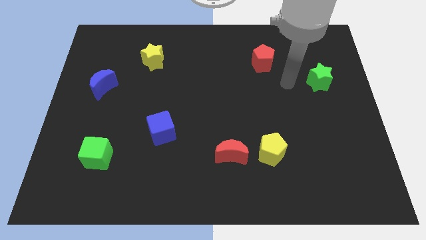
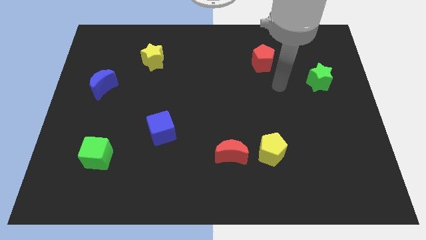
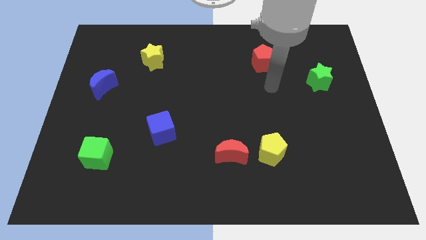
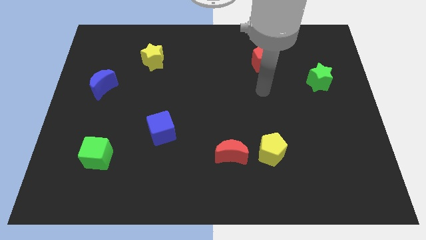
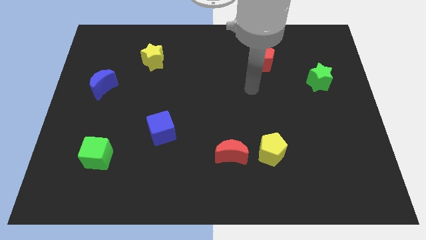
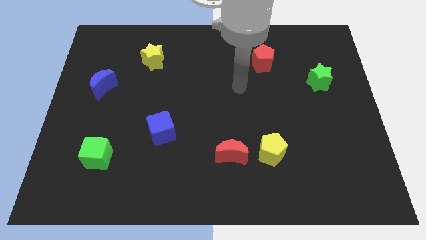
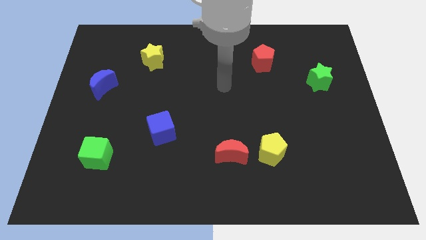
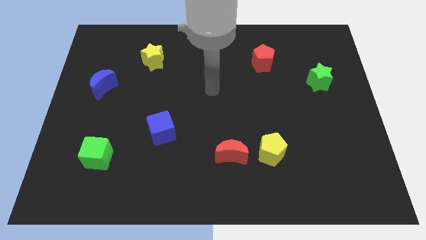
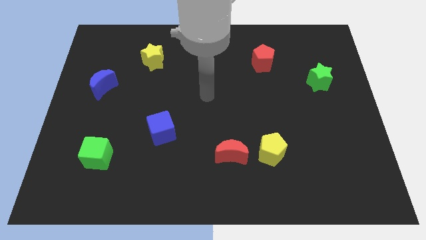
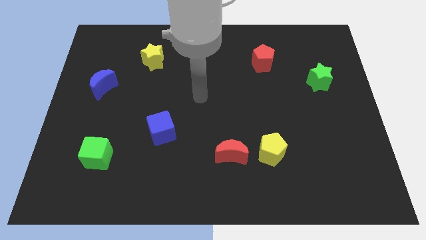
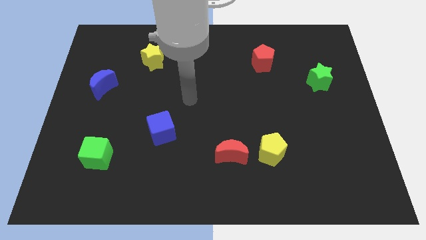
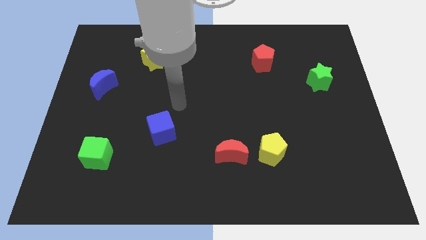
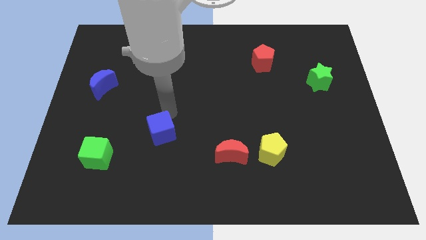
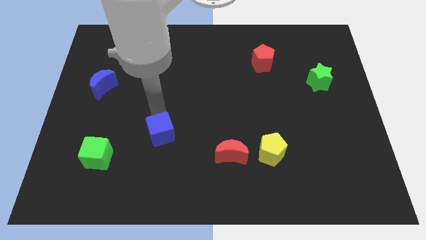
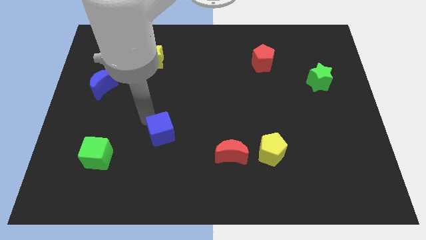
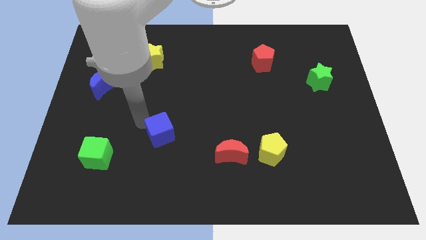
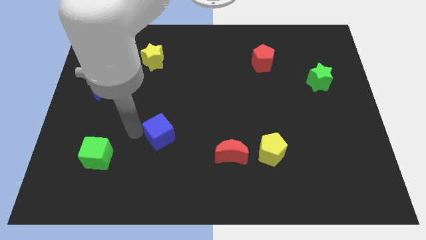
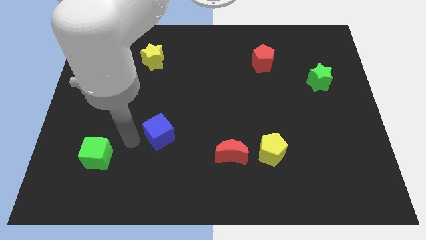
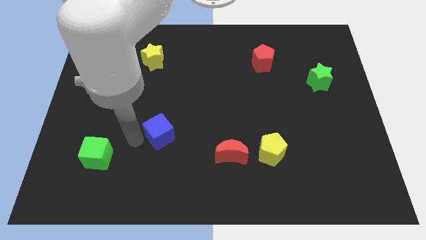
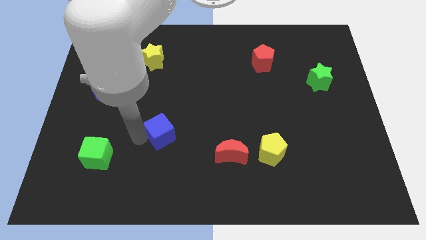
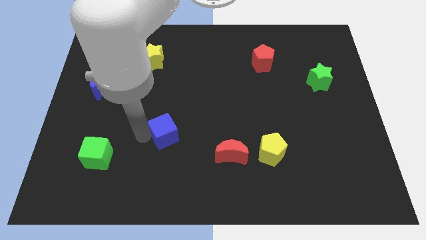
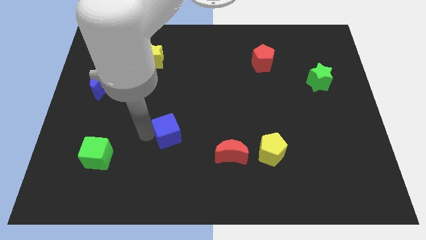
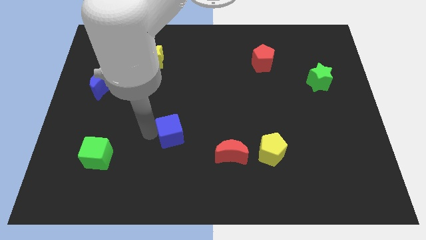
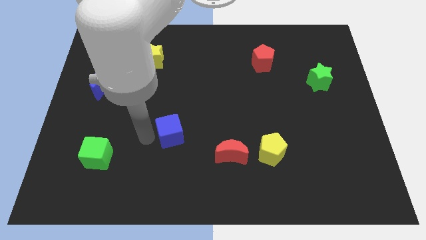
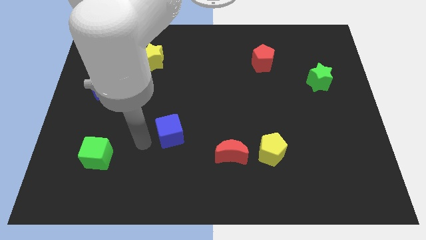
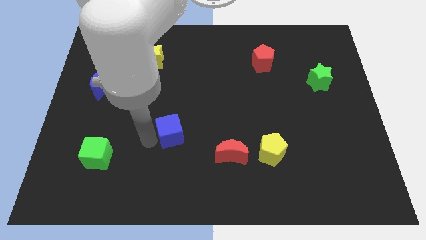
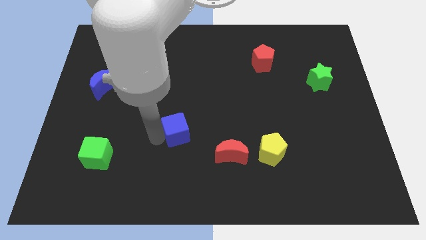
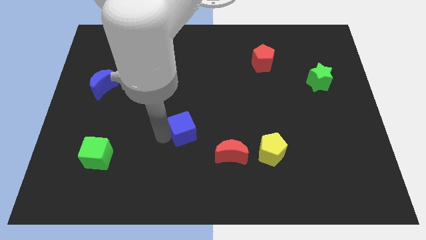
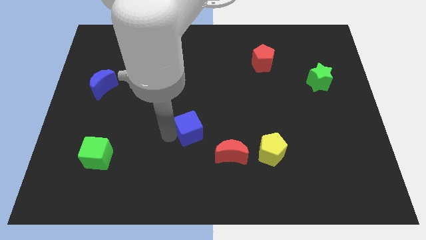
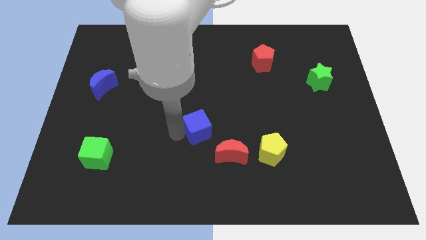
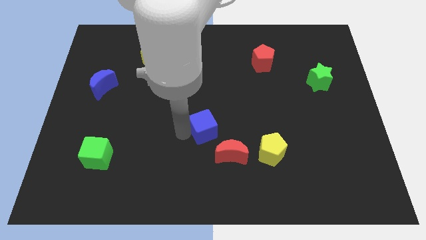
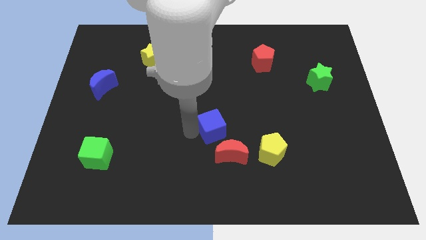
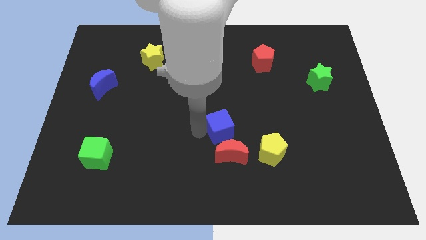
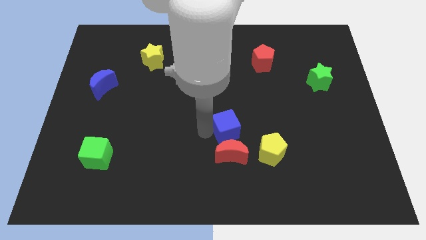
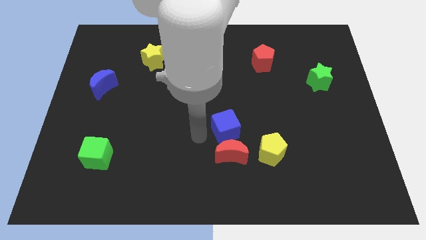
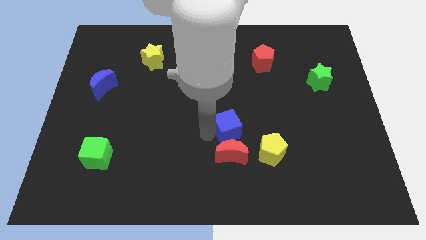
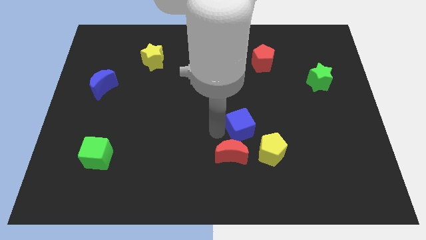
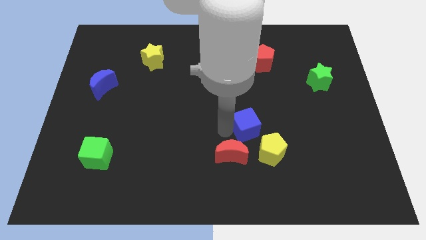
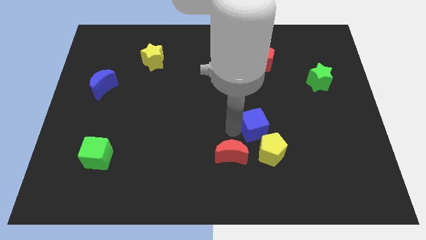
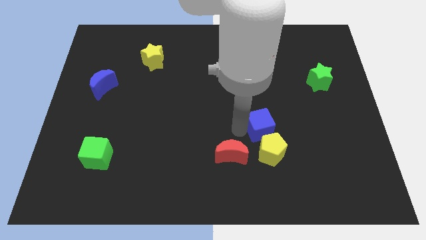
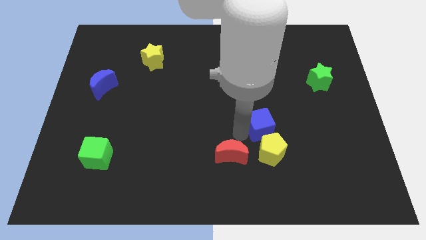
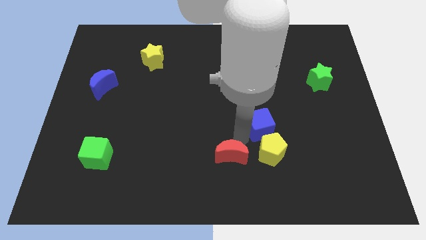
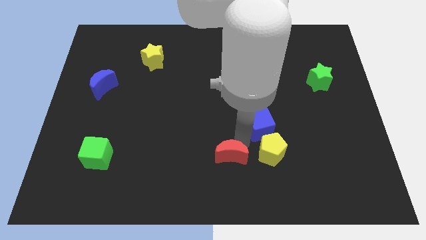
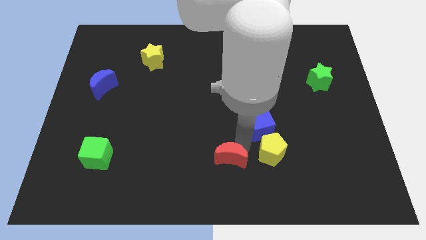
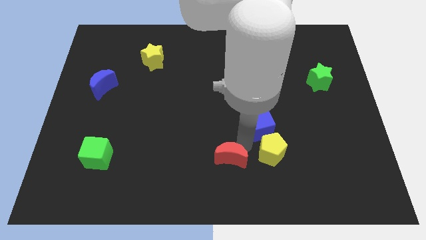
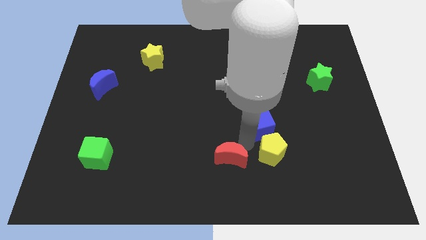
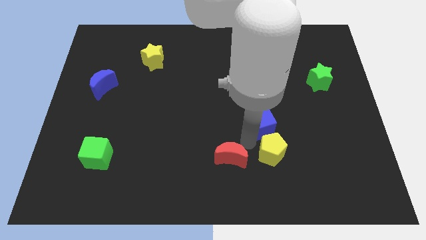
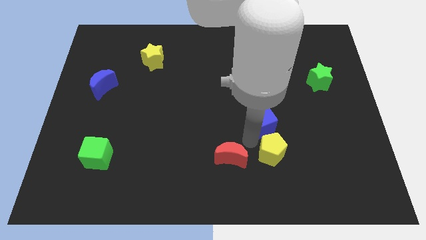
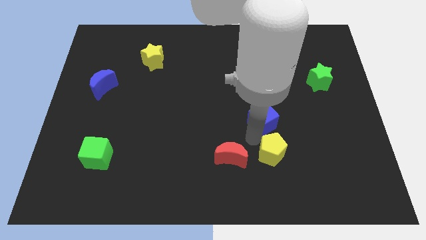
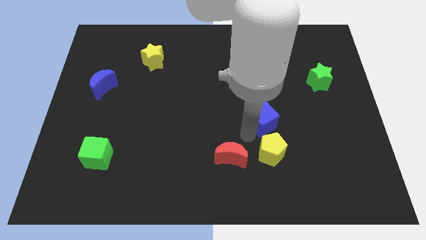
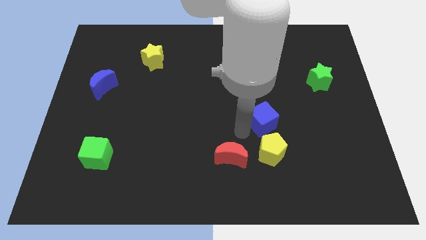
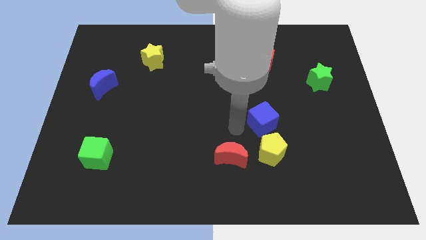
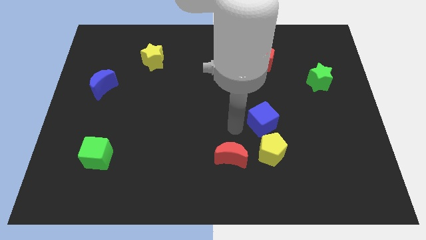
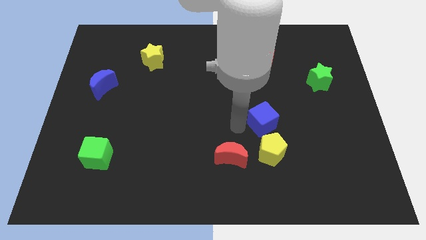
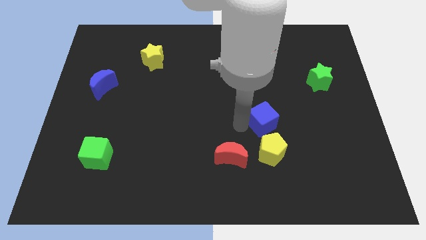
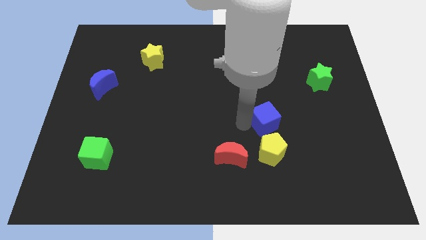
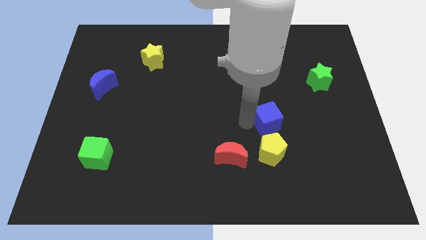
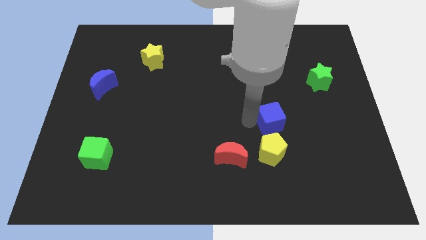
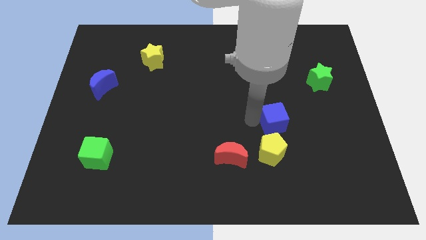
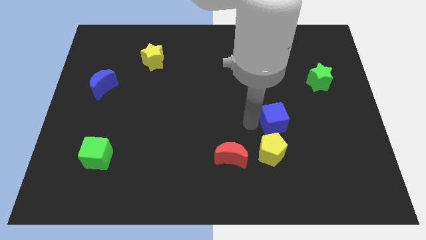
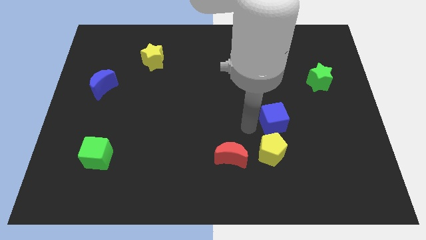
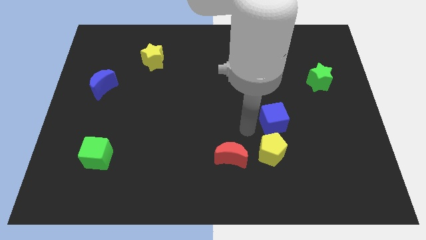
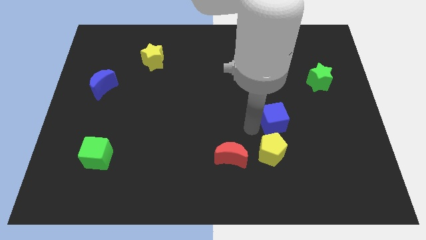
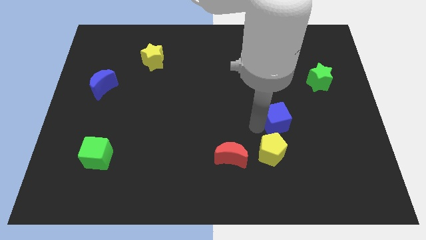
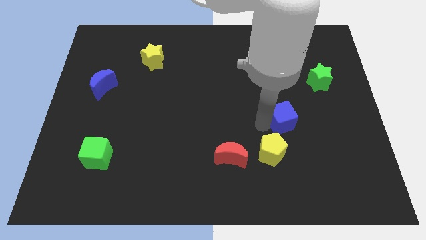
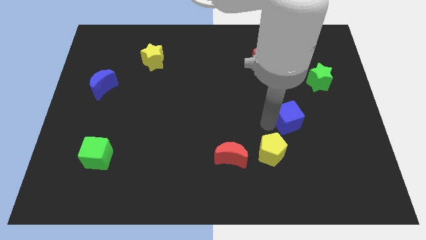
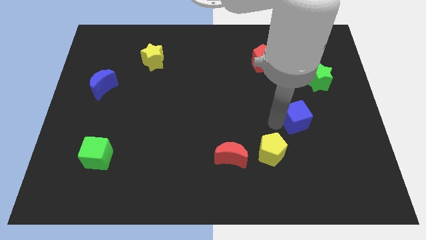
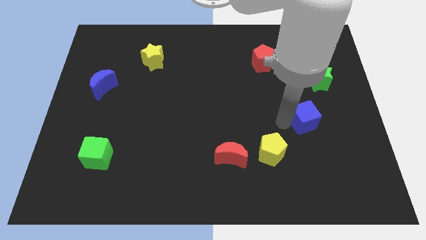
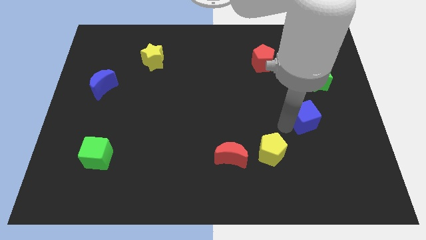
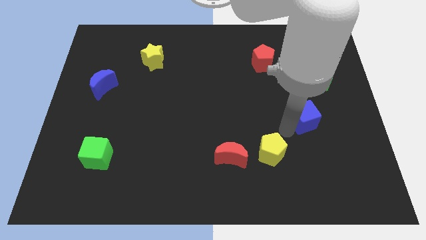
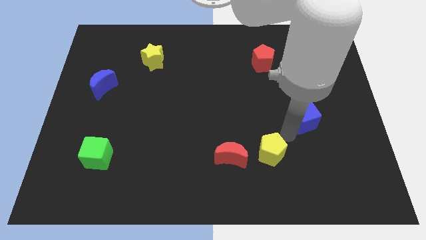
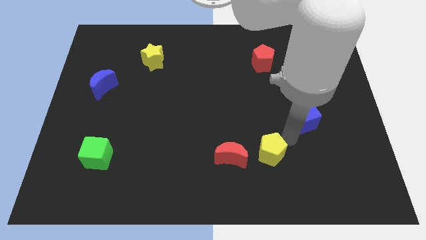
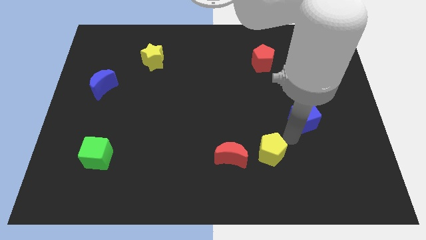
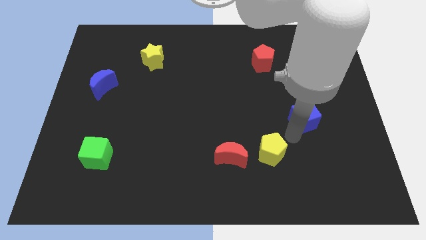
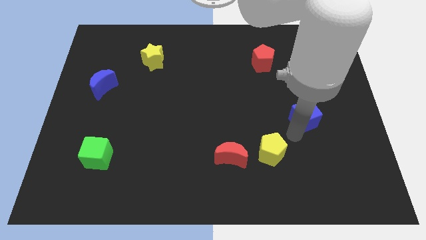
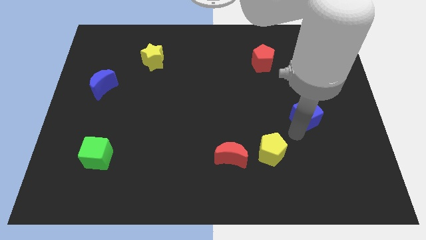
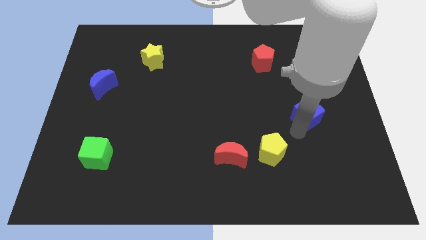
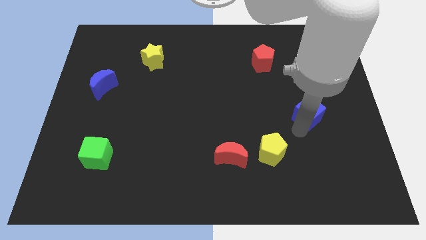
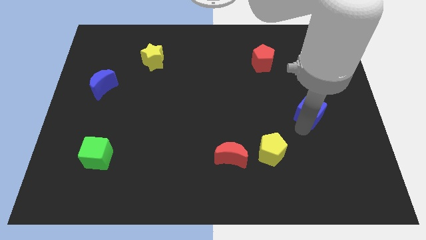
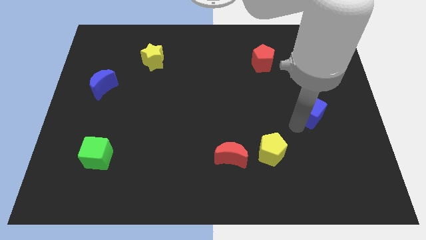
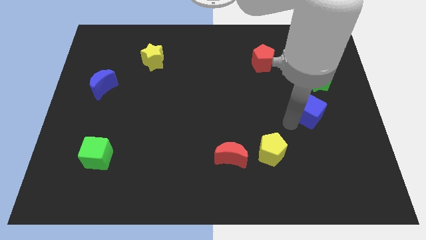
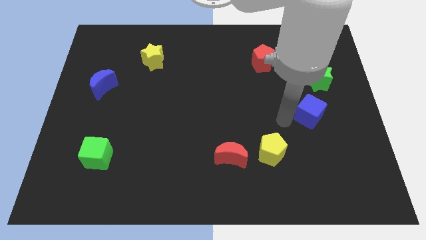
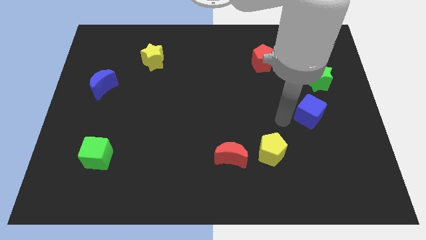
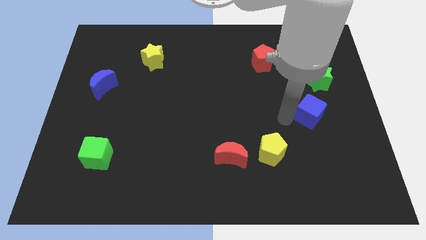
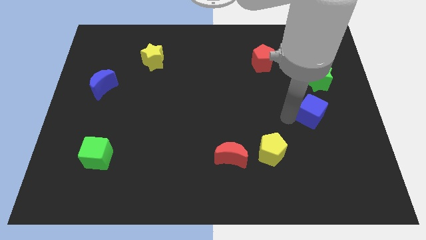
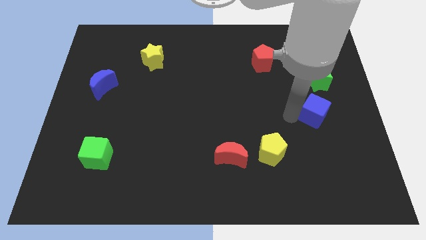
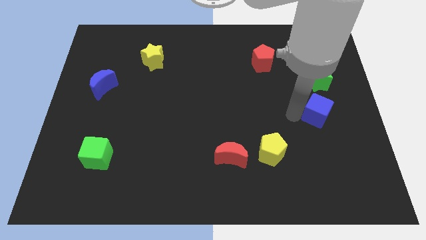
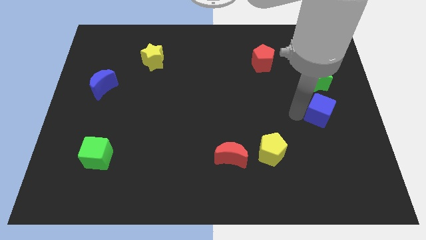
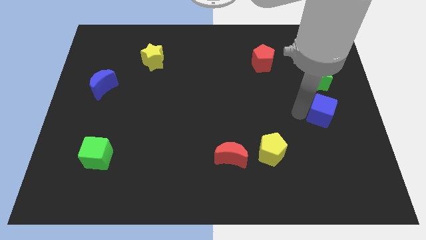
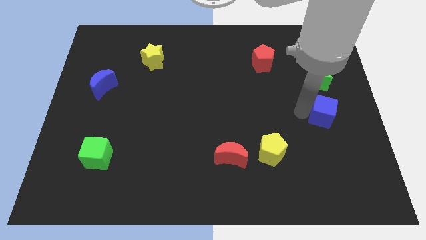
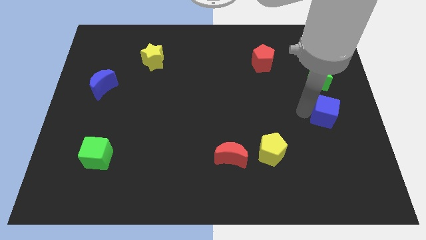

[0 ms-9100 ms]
slide the blue cube to the right side
